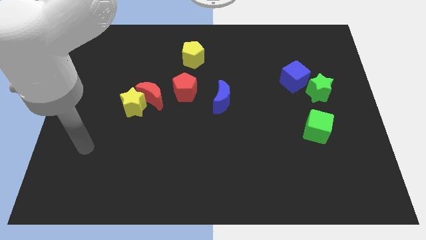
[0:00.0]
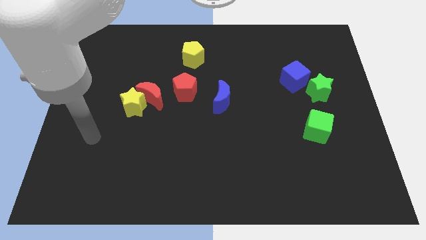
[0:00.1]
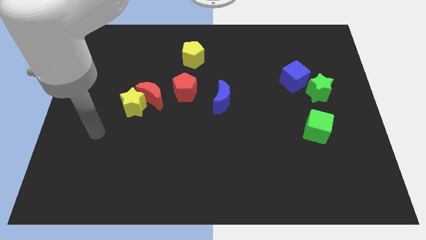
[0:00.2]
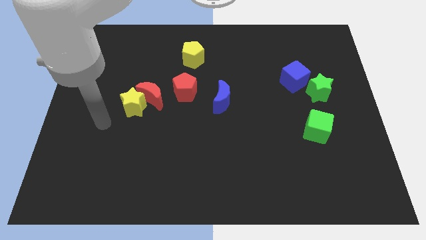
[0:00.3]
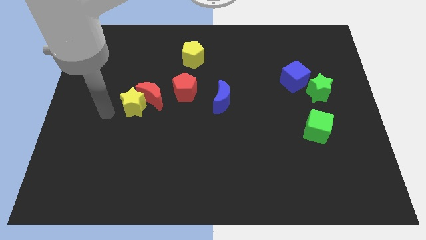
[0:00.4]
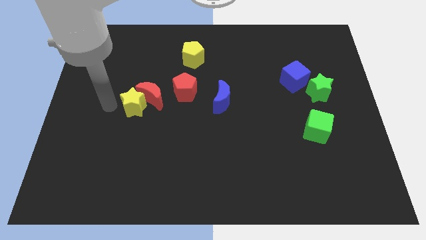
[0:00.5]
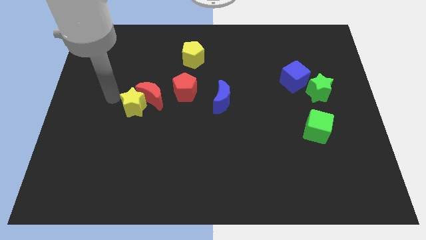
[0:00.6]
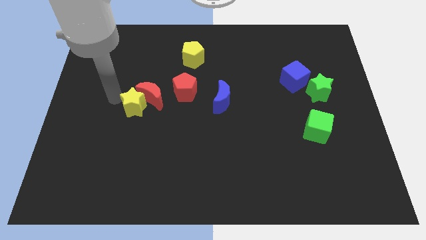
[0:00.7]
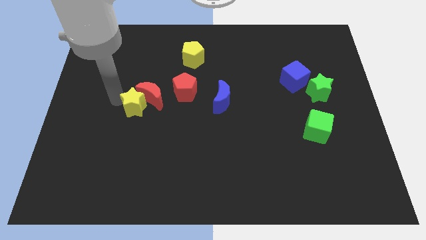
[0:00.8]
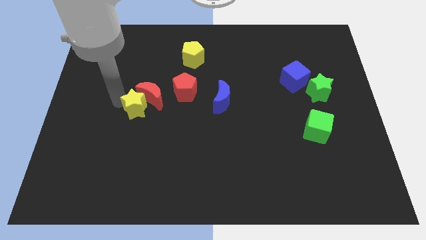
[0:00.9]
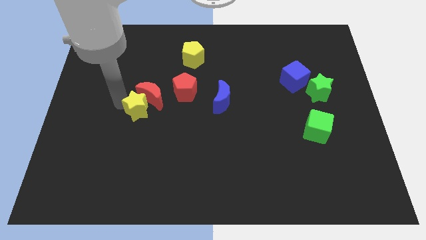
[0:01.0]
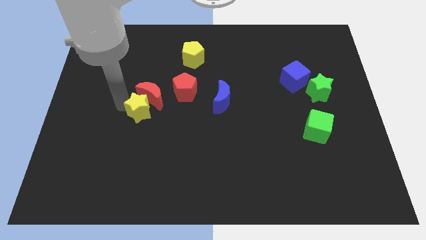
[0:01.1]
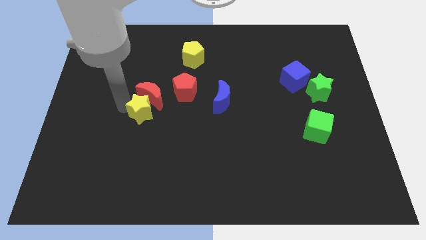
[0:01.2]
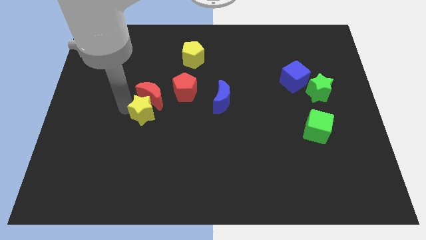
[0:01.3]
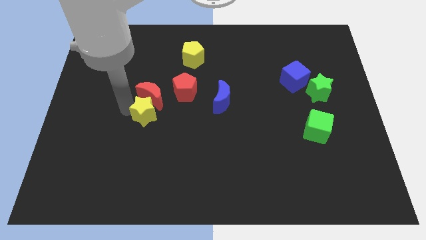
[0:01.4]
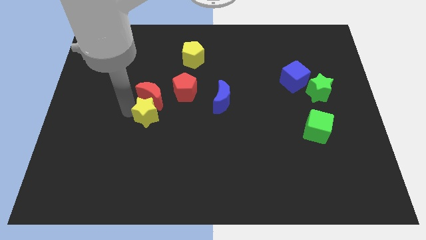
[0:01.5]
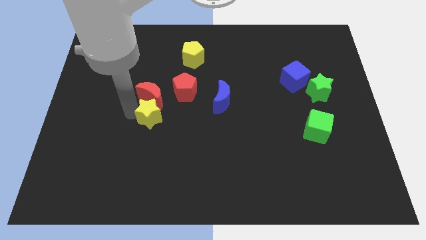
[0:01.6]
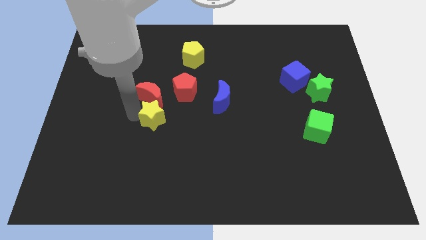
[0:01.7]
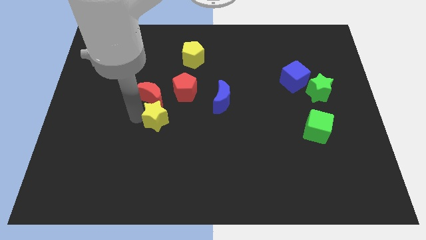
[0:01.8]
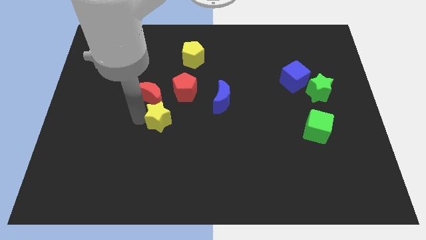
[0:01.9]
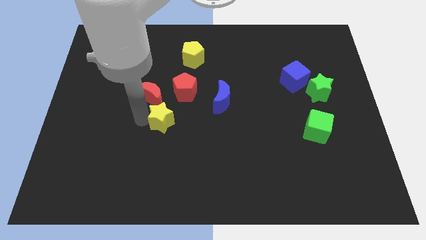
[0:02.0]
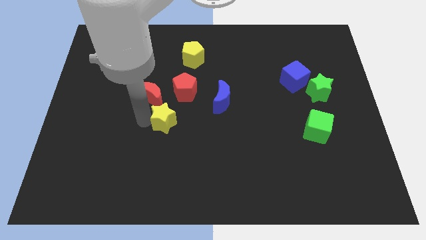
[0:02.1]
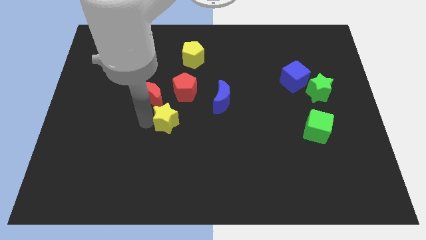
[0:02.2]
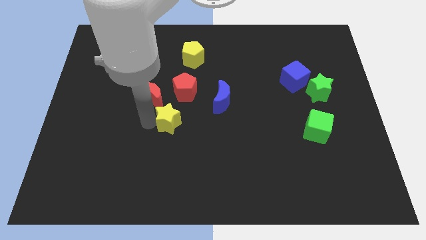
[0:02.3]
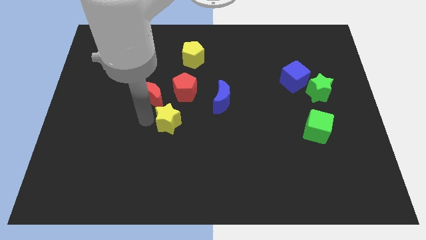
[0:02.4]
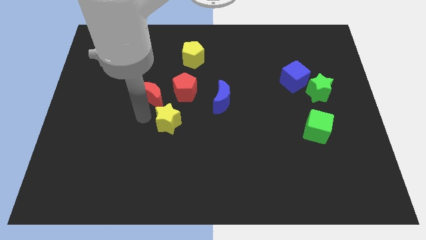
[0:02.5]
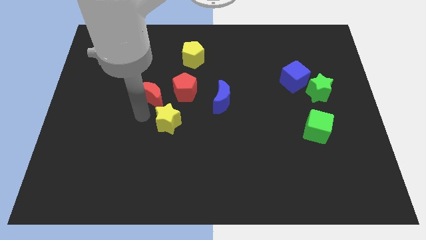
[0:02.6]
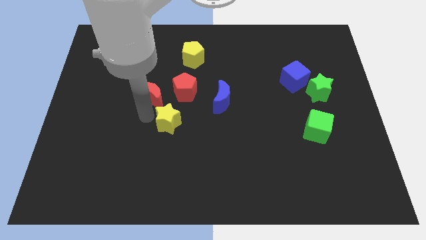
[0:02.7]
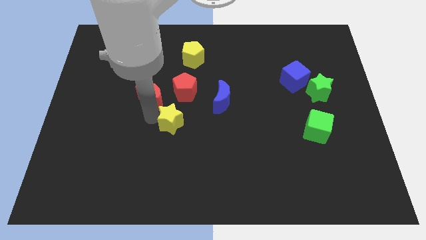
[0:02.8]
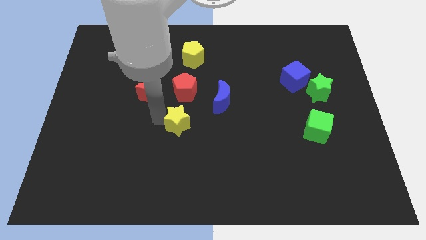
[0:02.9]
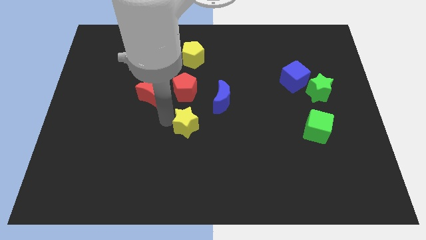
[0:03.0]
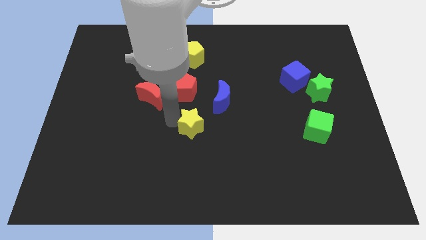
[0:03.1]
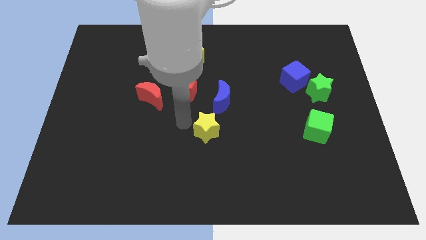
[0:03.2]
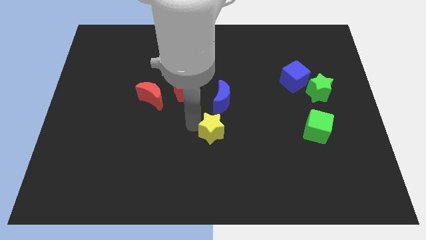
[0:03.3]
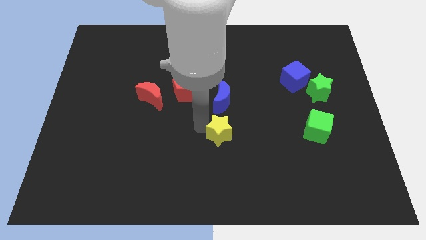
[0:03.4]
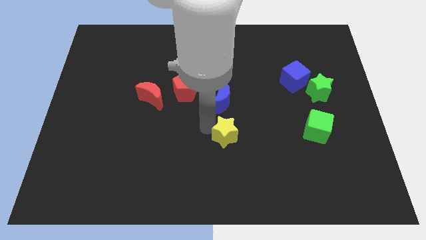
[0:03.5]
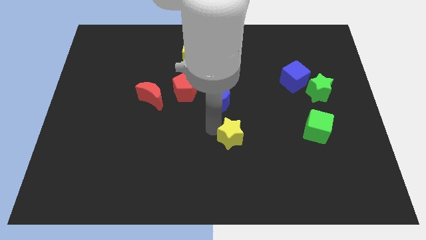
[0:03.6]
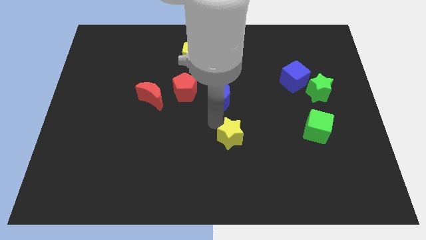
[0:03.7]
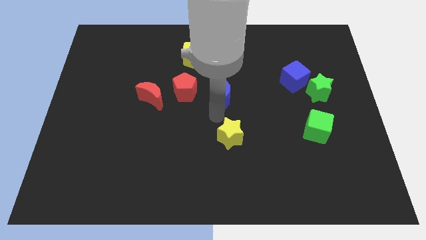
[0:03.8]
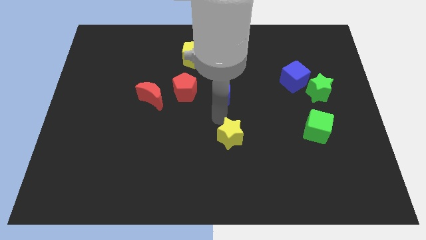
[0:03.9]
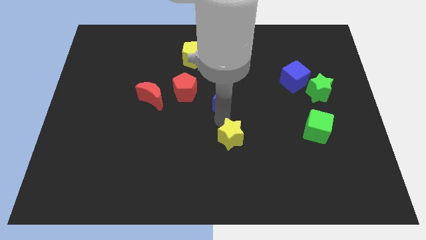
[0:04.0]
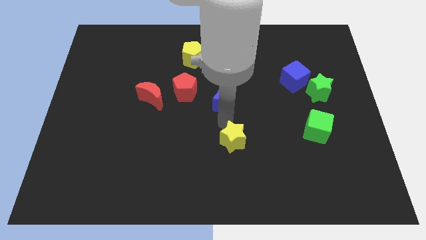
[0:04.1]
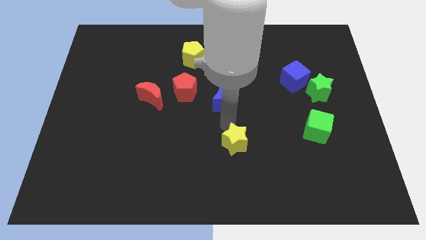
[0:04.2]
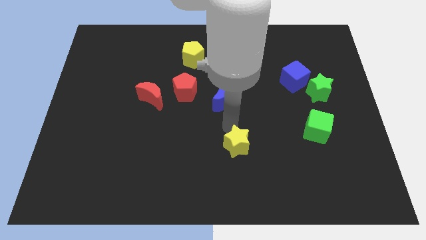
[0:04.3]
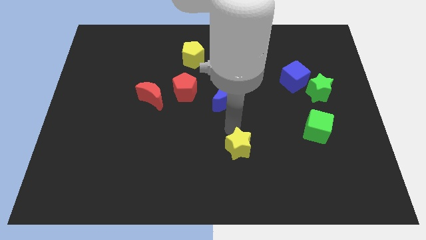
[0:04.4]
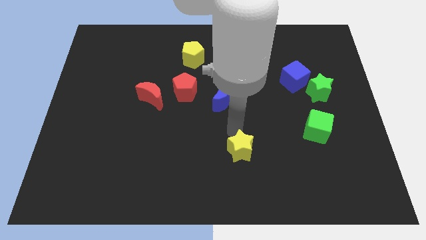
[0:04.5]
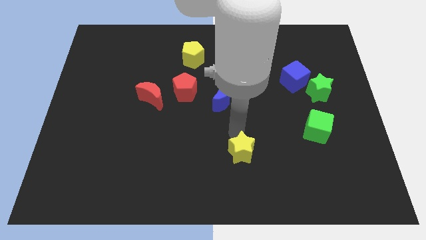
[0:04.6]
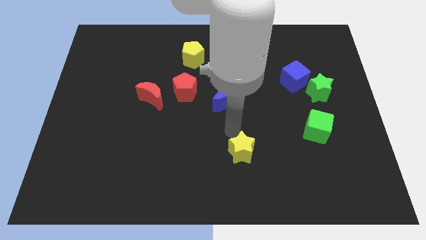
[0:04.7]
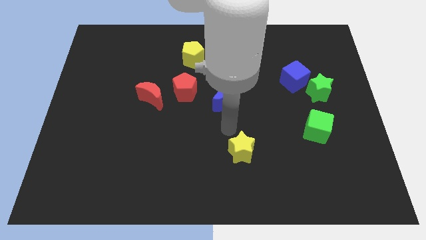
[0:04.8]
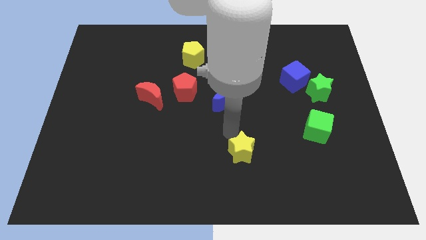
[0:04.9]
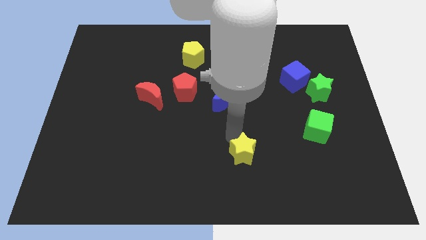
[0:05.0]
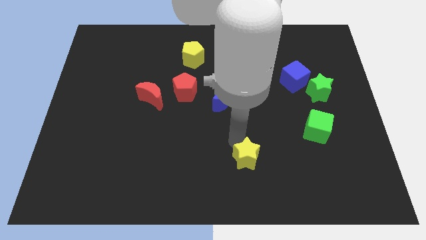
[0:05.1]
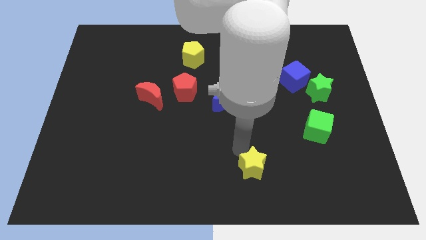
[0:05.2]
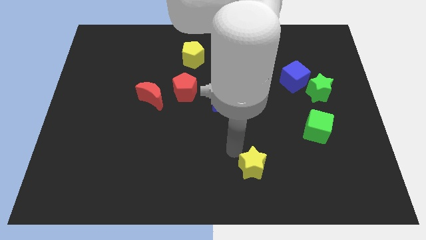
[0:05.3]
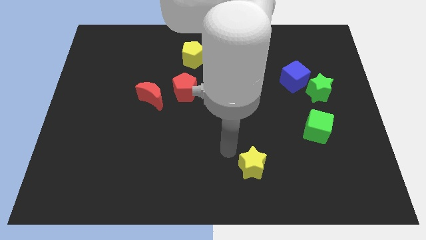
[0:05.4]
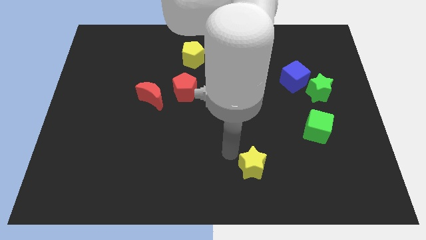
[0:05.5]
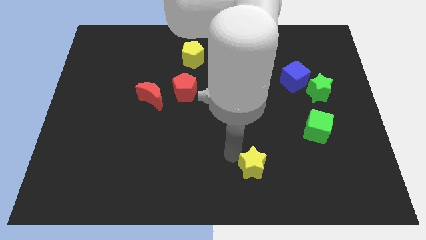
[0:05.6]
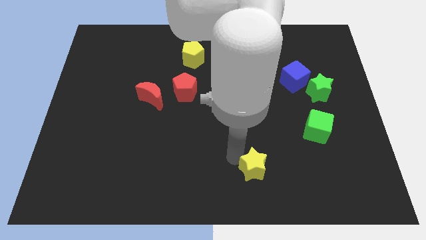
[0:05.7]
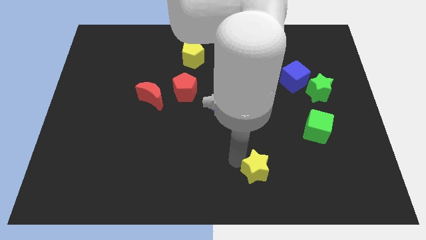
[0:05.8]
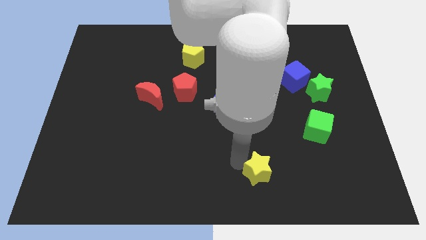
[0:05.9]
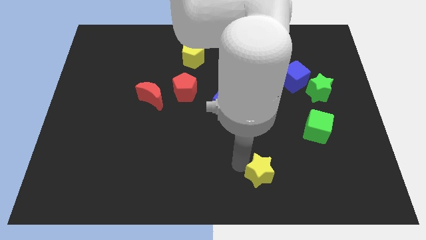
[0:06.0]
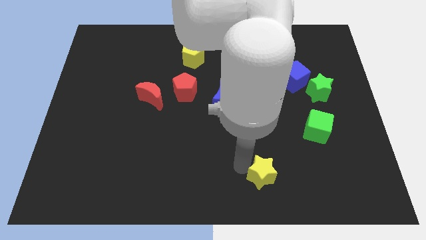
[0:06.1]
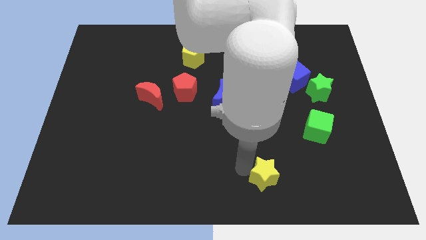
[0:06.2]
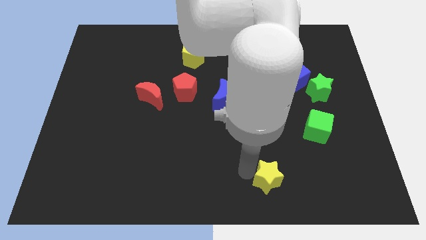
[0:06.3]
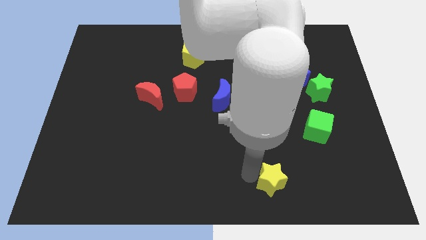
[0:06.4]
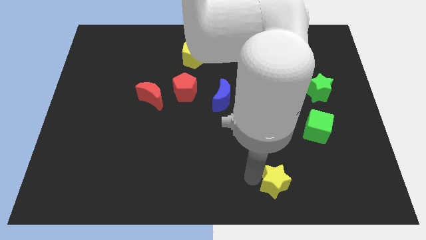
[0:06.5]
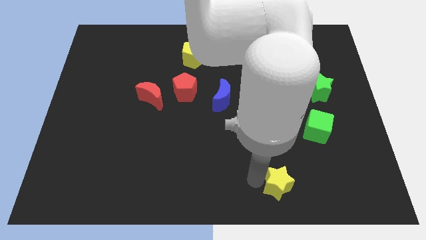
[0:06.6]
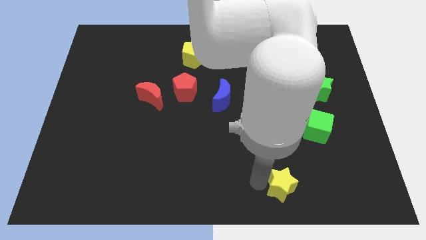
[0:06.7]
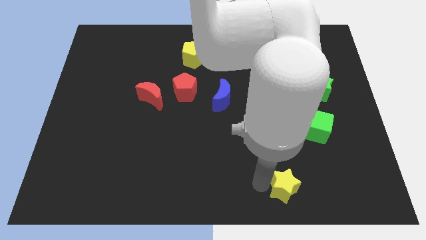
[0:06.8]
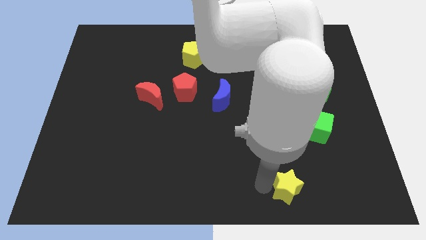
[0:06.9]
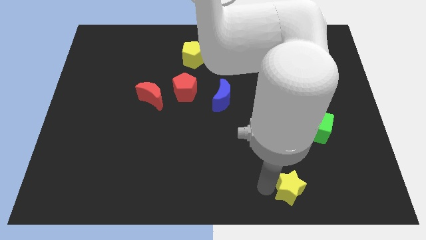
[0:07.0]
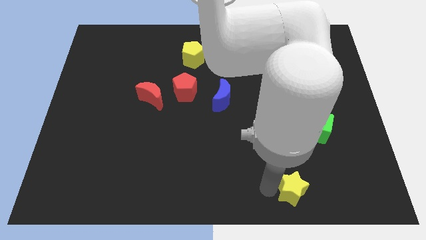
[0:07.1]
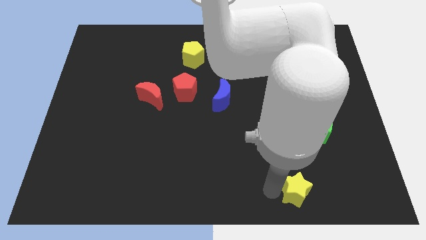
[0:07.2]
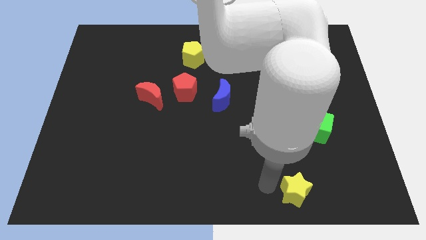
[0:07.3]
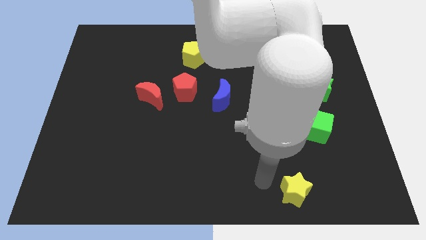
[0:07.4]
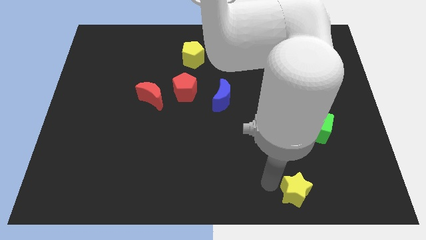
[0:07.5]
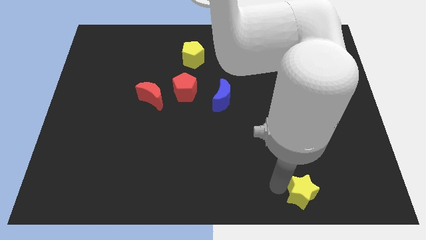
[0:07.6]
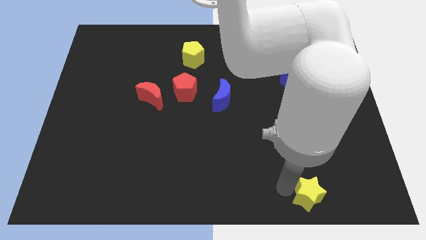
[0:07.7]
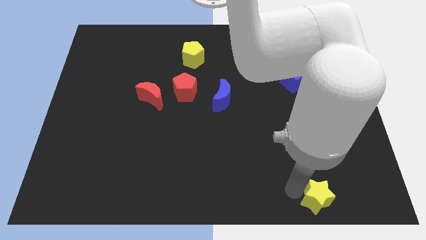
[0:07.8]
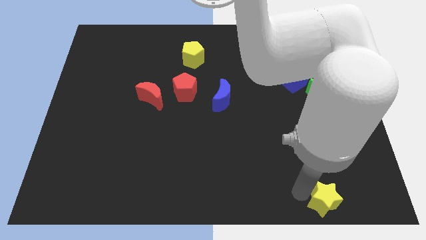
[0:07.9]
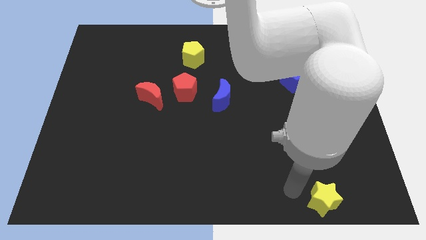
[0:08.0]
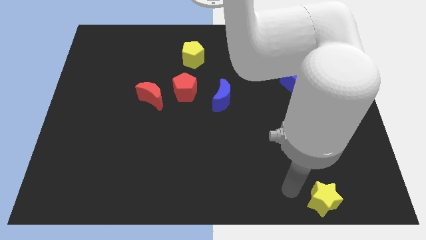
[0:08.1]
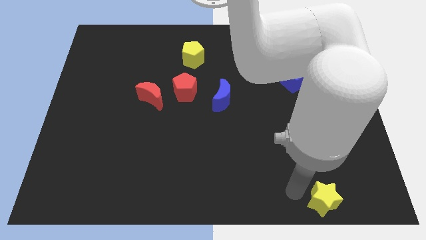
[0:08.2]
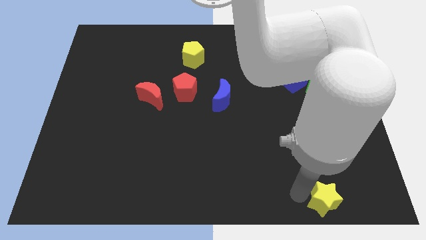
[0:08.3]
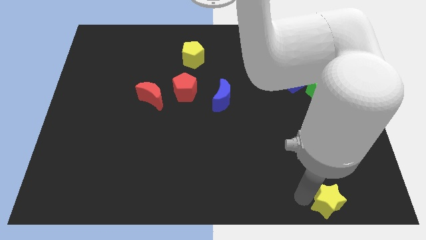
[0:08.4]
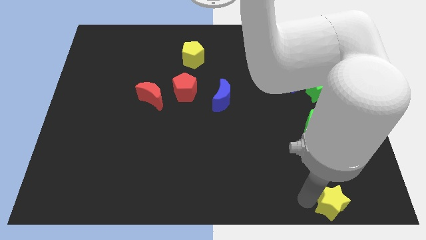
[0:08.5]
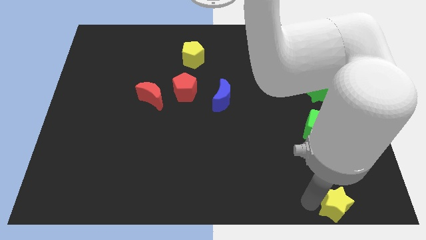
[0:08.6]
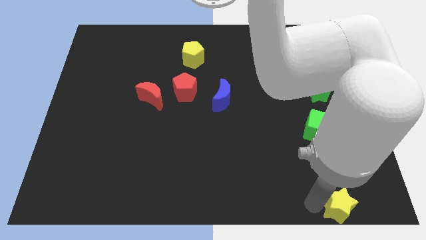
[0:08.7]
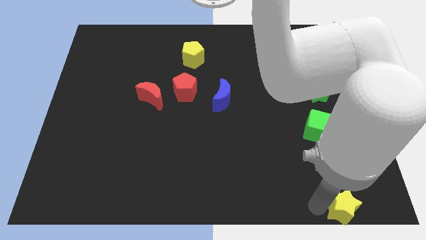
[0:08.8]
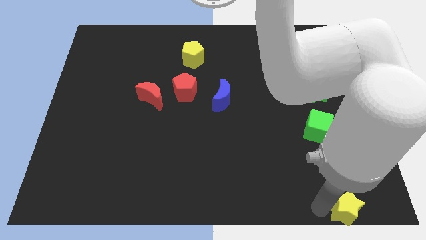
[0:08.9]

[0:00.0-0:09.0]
push the yellow star to the bottom right corner
